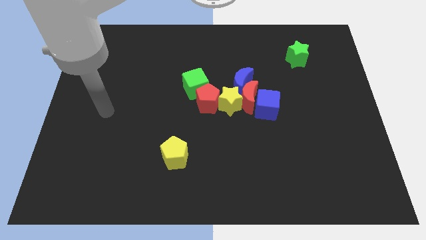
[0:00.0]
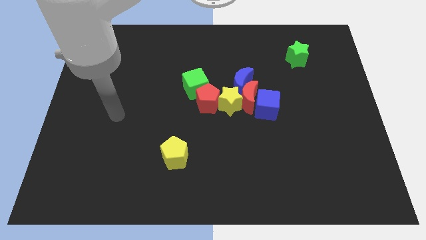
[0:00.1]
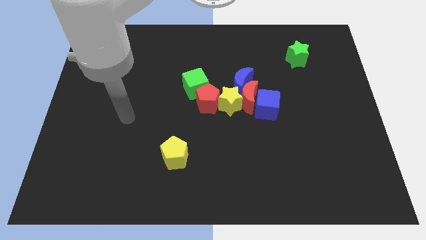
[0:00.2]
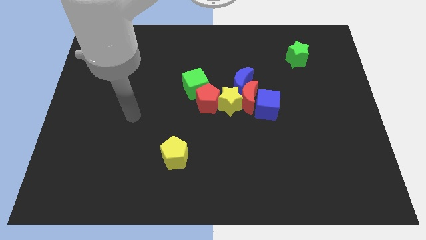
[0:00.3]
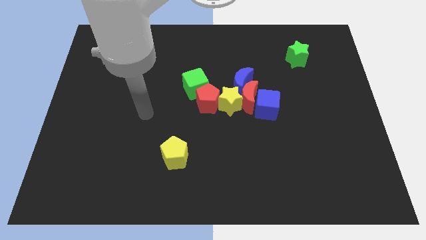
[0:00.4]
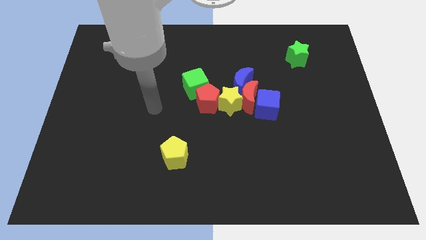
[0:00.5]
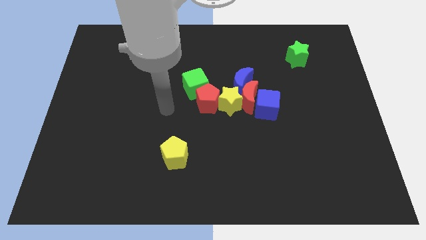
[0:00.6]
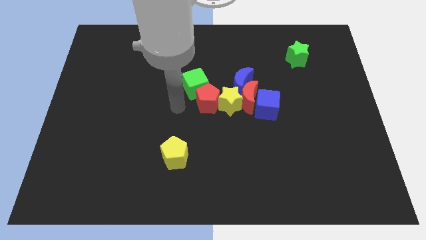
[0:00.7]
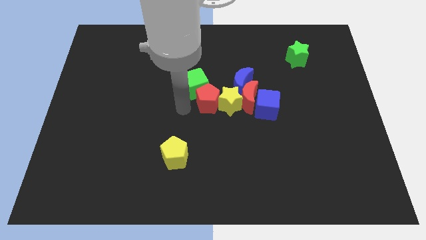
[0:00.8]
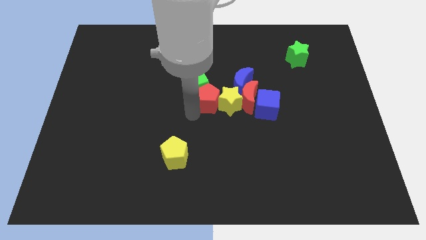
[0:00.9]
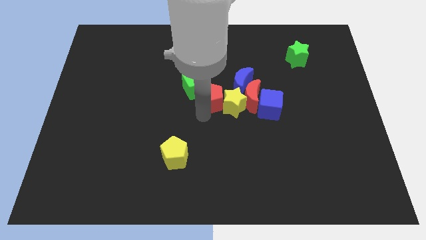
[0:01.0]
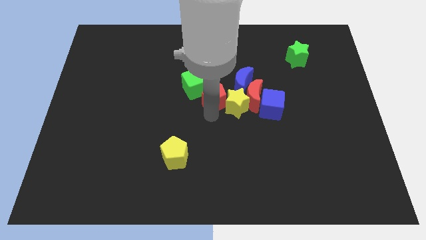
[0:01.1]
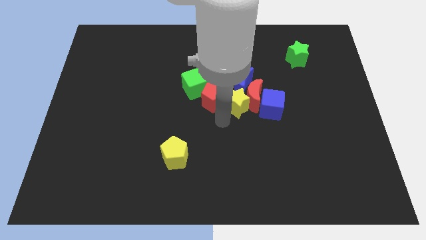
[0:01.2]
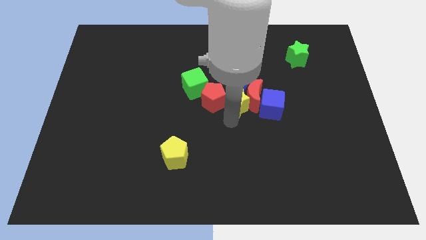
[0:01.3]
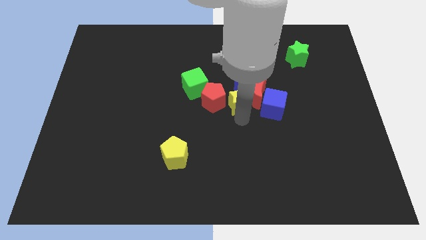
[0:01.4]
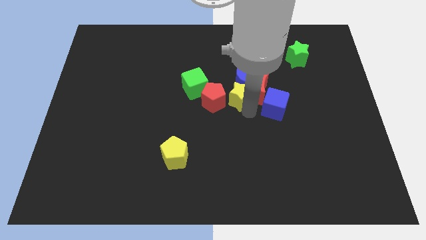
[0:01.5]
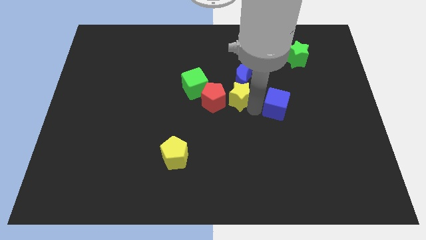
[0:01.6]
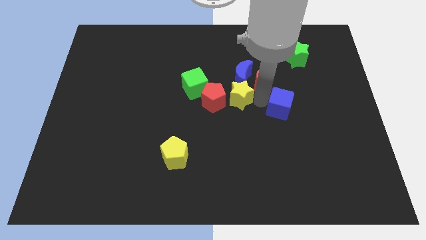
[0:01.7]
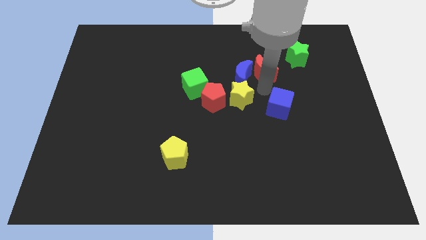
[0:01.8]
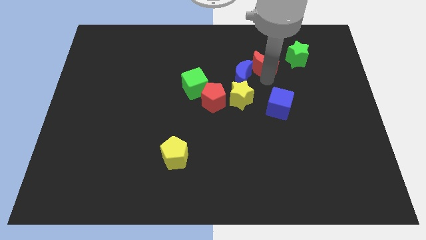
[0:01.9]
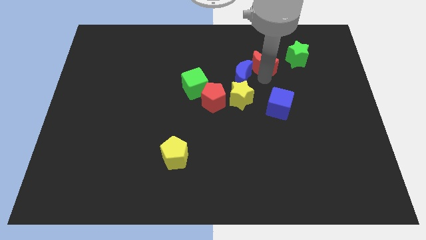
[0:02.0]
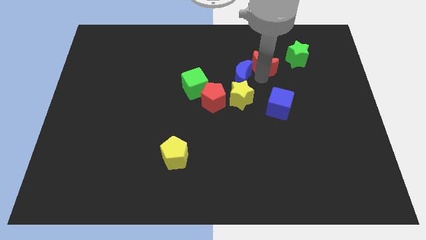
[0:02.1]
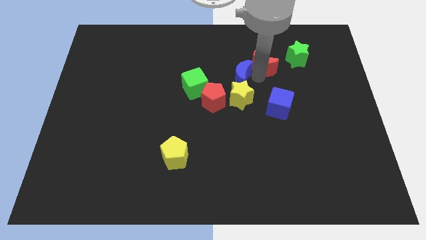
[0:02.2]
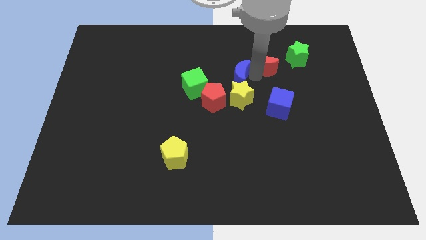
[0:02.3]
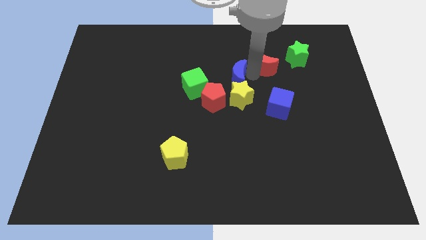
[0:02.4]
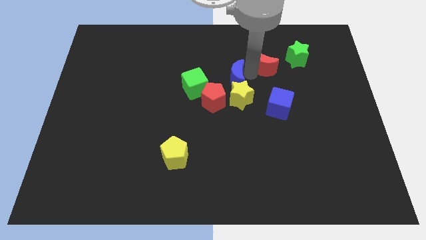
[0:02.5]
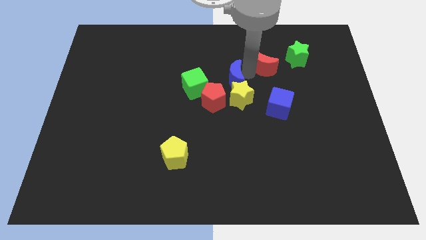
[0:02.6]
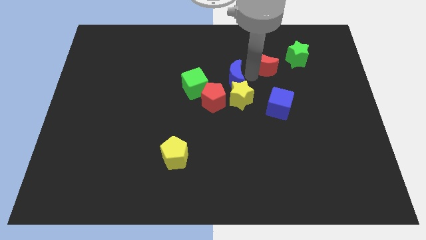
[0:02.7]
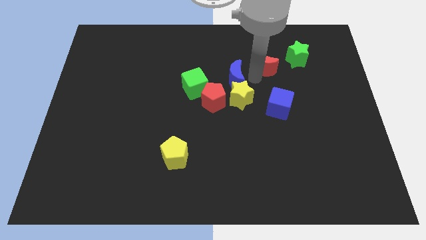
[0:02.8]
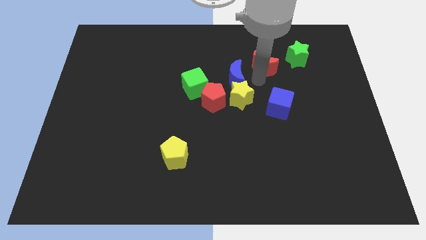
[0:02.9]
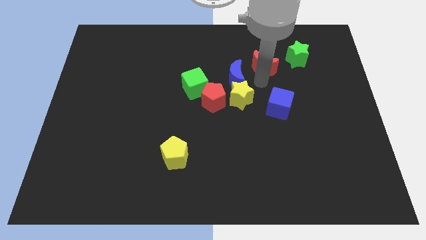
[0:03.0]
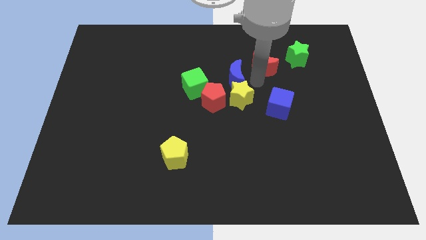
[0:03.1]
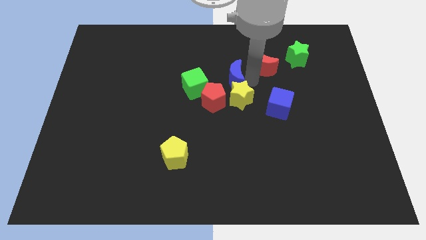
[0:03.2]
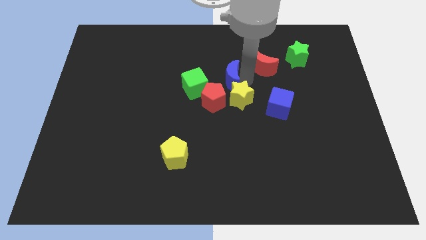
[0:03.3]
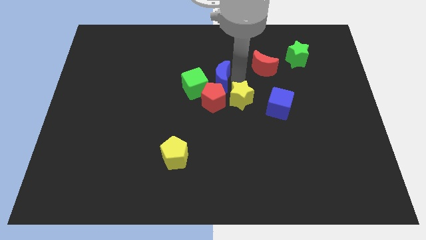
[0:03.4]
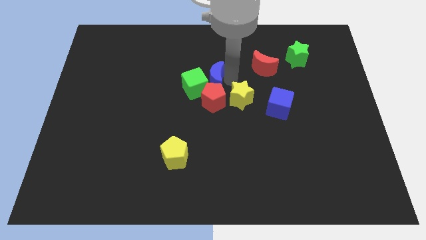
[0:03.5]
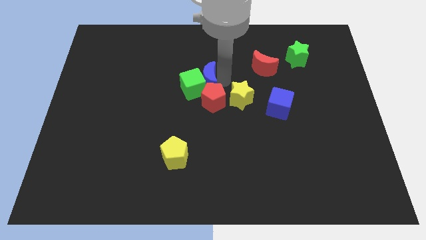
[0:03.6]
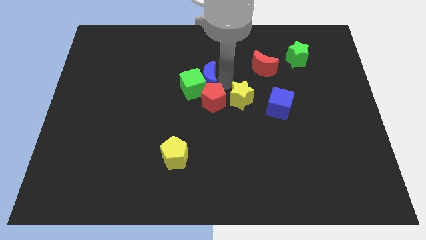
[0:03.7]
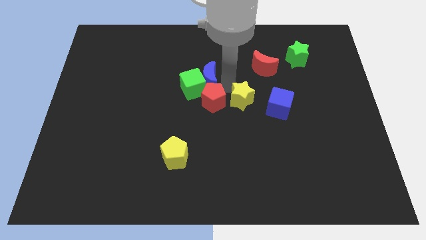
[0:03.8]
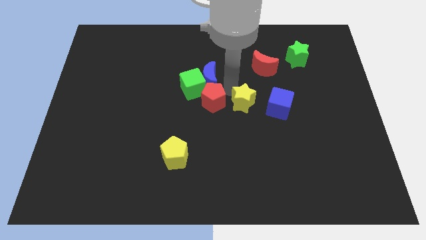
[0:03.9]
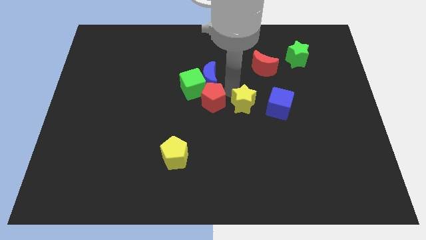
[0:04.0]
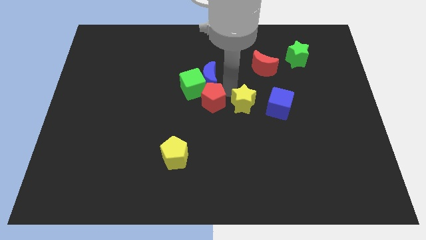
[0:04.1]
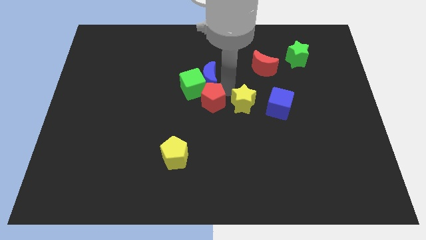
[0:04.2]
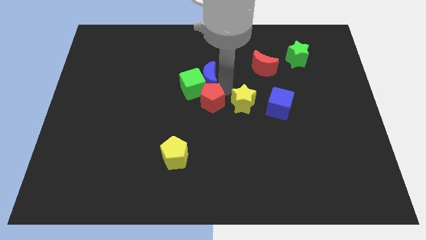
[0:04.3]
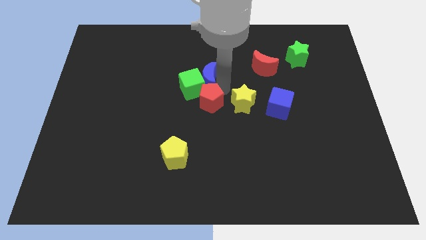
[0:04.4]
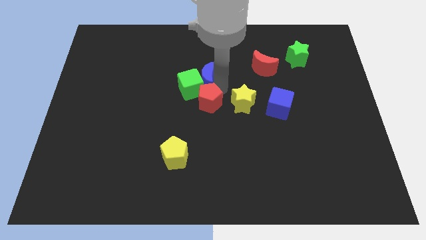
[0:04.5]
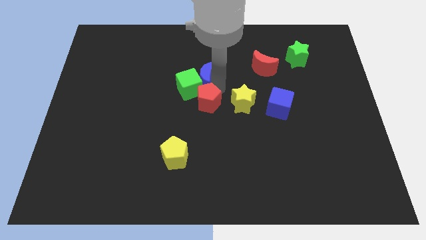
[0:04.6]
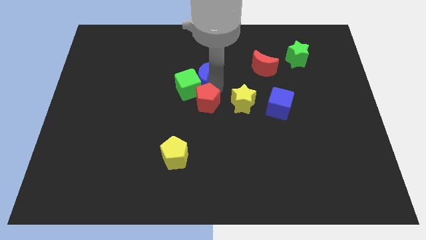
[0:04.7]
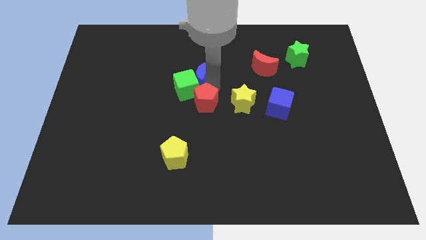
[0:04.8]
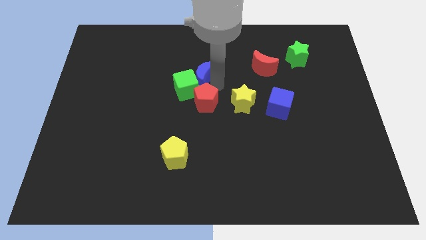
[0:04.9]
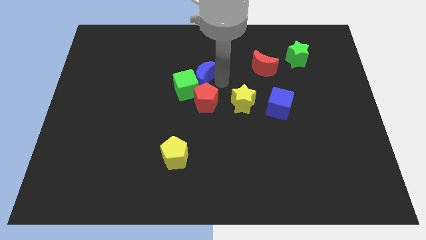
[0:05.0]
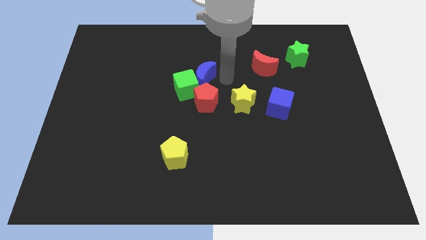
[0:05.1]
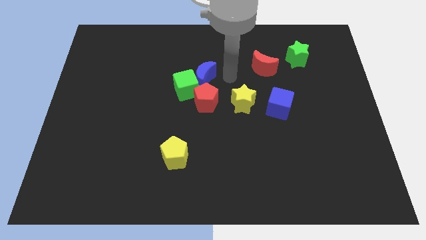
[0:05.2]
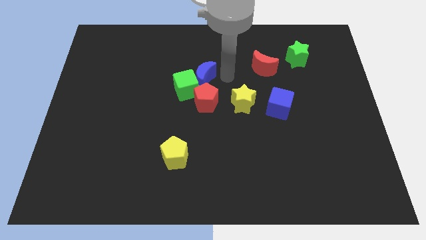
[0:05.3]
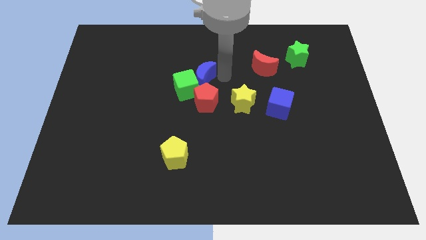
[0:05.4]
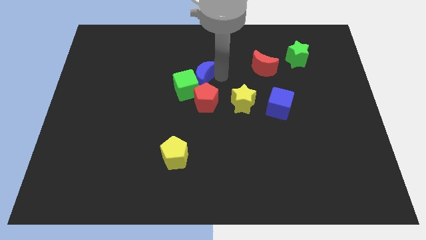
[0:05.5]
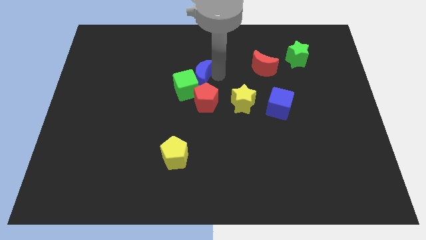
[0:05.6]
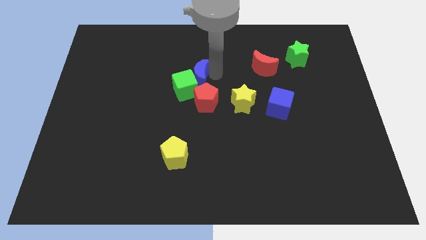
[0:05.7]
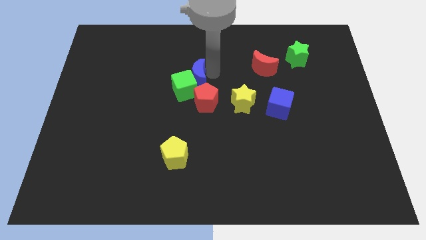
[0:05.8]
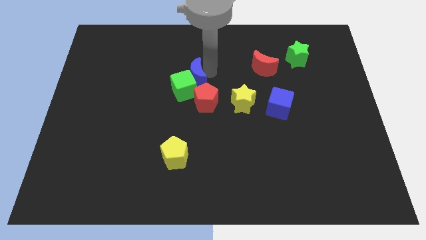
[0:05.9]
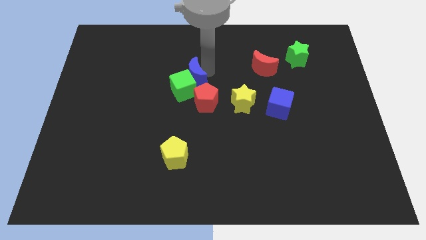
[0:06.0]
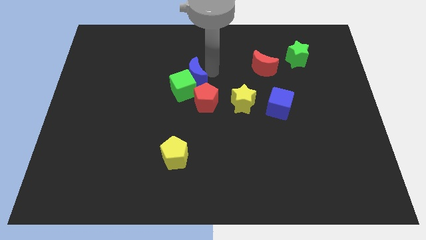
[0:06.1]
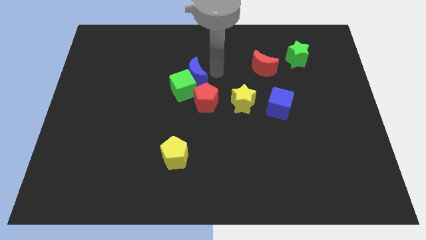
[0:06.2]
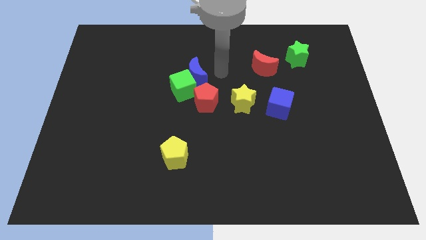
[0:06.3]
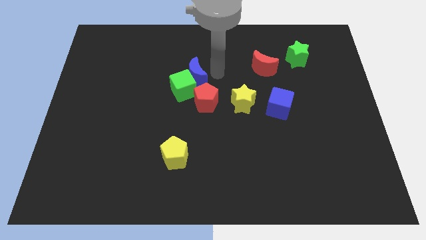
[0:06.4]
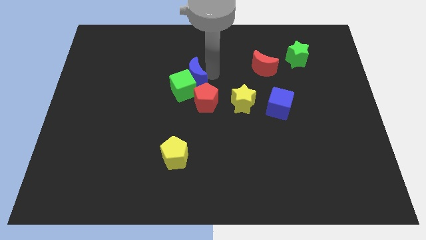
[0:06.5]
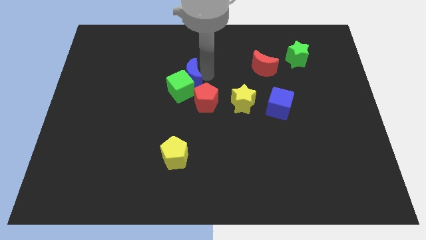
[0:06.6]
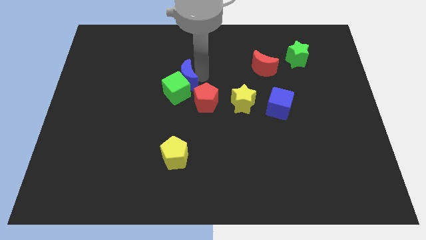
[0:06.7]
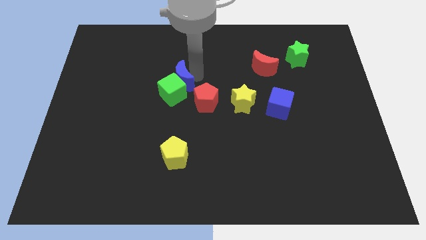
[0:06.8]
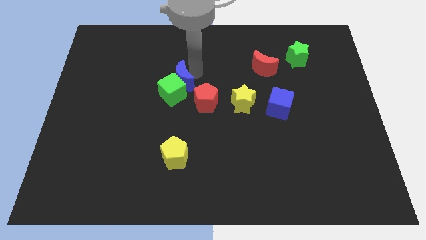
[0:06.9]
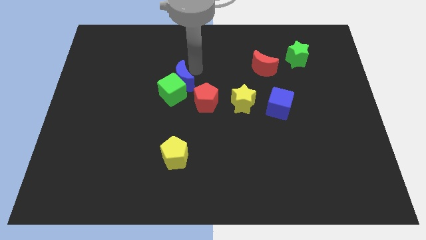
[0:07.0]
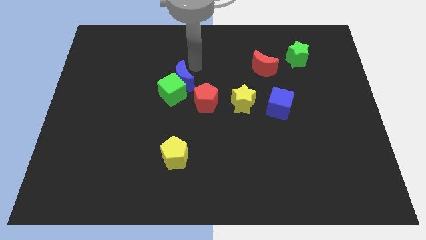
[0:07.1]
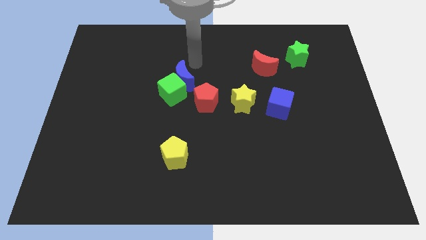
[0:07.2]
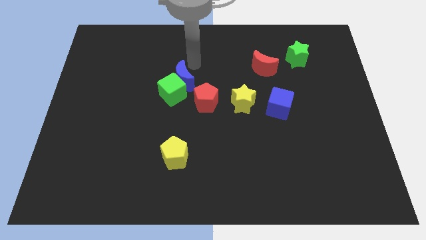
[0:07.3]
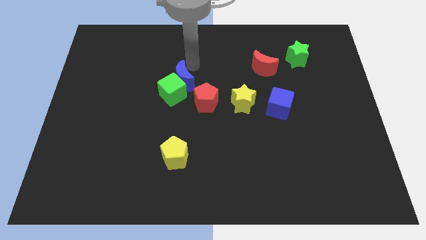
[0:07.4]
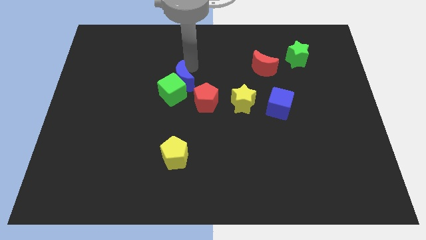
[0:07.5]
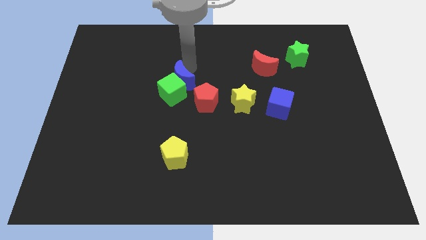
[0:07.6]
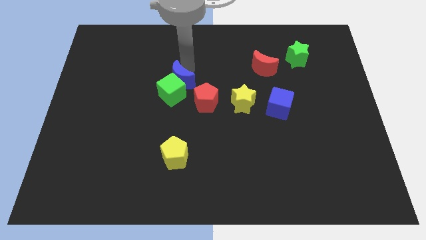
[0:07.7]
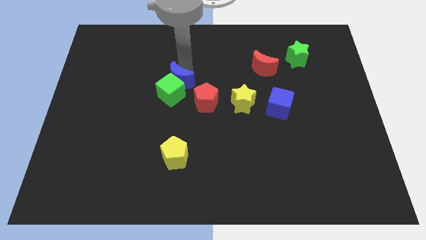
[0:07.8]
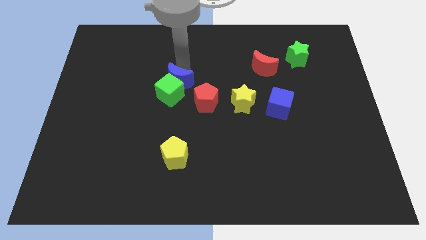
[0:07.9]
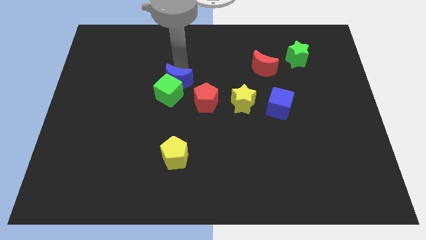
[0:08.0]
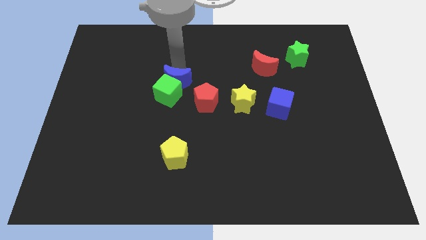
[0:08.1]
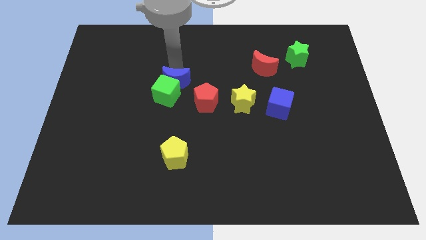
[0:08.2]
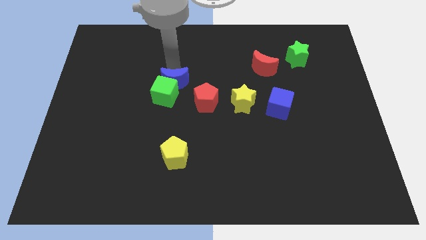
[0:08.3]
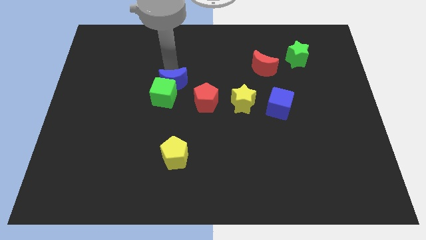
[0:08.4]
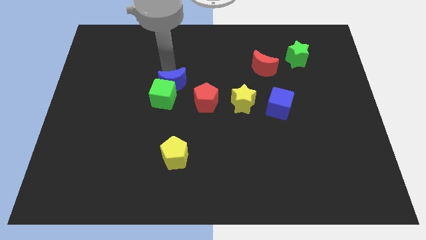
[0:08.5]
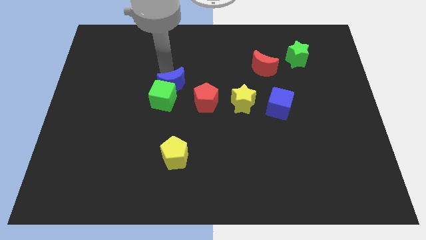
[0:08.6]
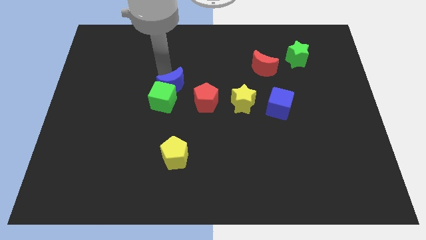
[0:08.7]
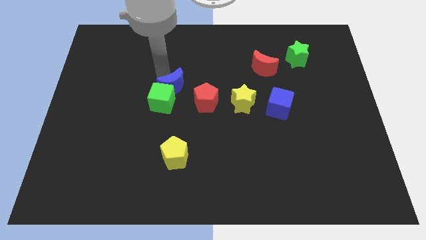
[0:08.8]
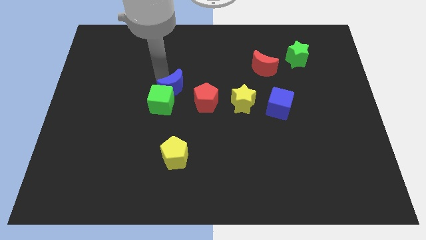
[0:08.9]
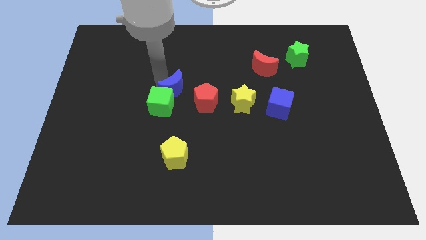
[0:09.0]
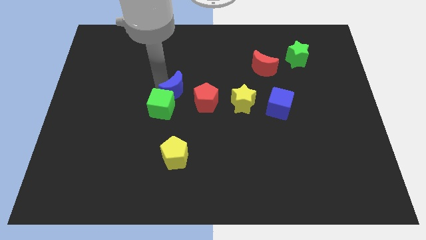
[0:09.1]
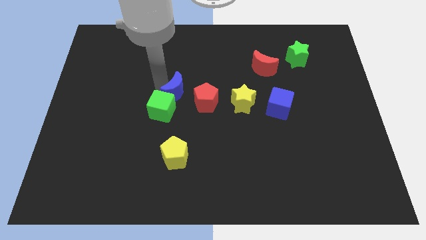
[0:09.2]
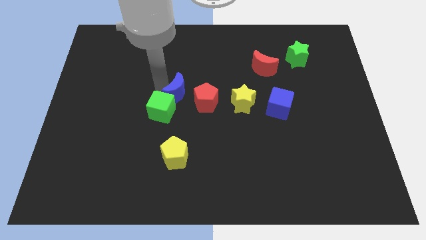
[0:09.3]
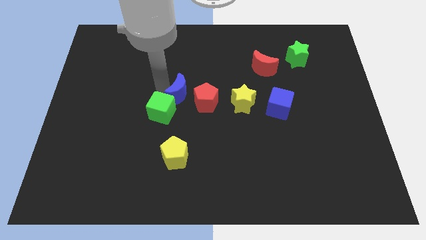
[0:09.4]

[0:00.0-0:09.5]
slide the blue moon to the left of the yellow star
